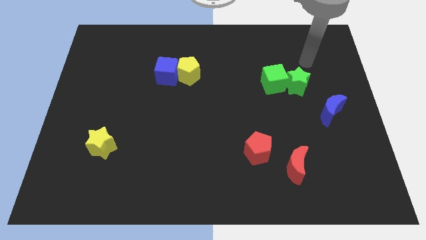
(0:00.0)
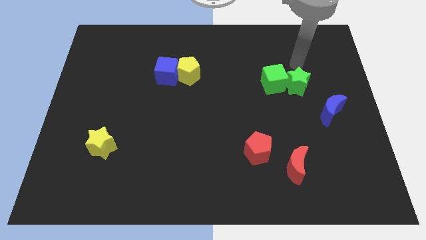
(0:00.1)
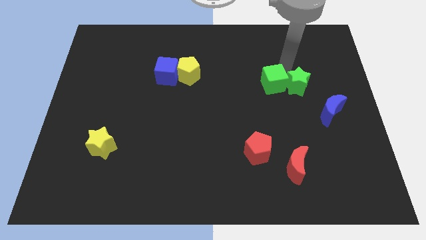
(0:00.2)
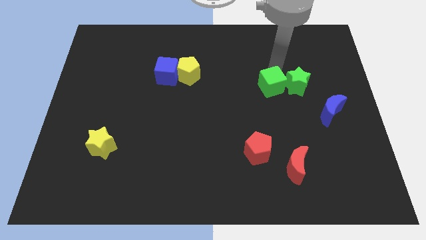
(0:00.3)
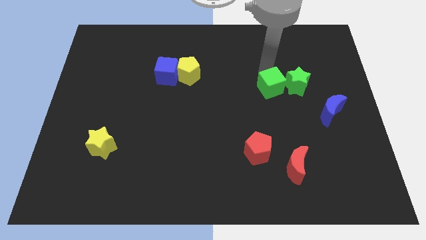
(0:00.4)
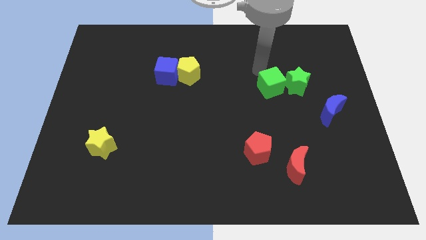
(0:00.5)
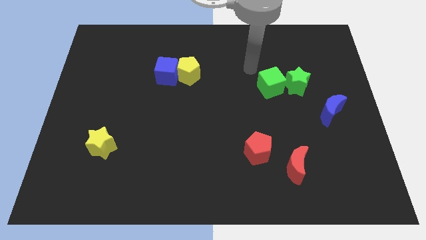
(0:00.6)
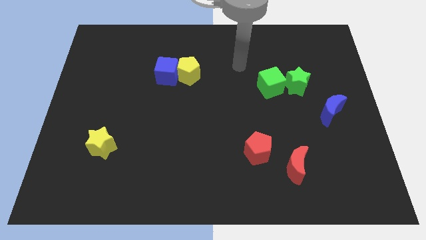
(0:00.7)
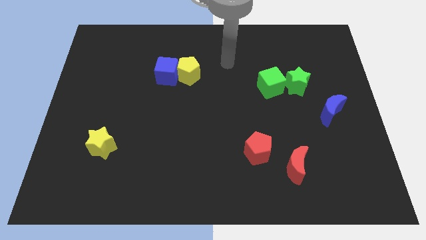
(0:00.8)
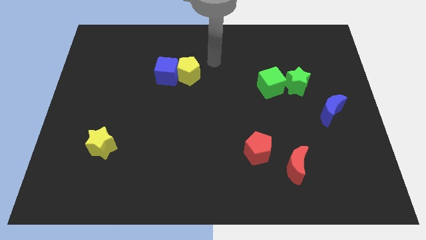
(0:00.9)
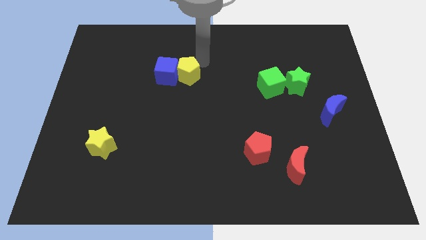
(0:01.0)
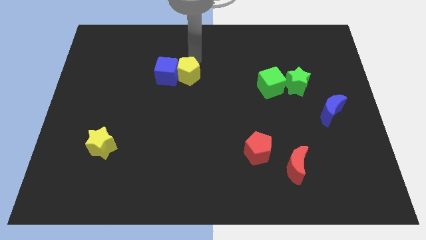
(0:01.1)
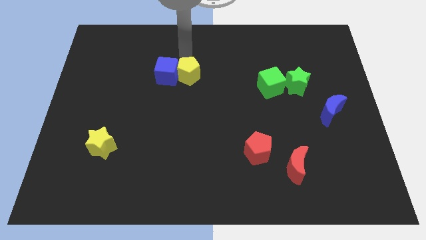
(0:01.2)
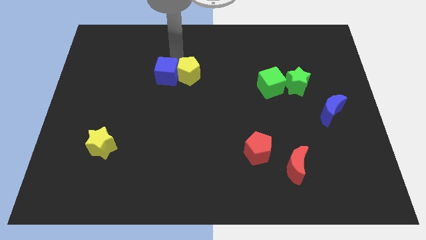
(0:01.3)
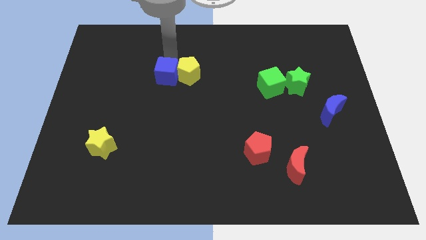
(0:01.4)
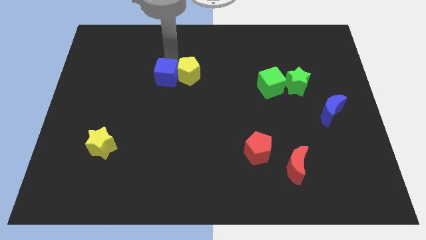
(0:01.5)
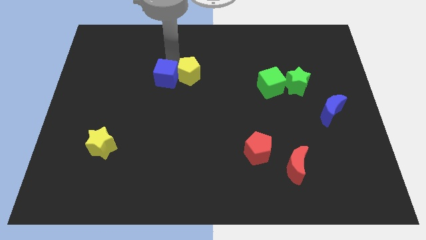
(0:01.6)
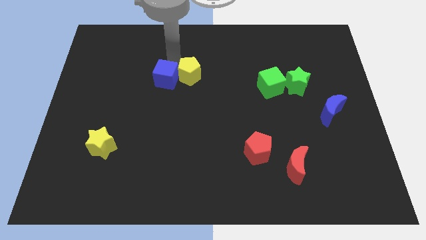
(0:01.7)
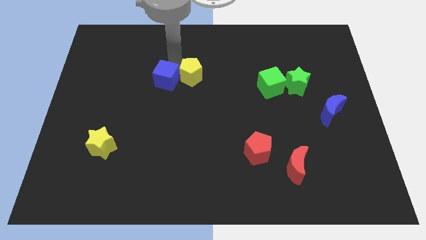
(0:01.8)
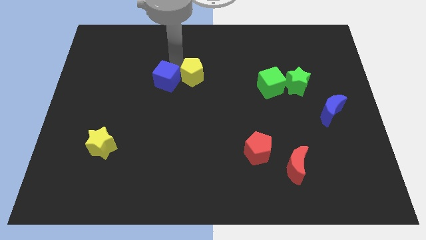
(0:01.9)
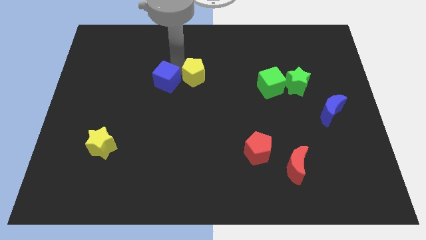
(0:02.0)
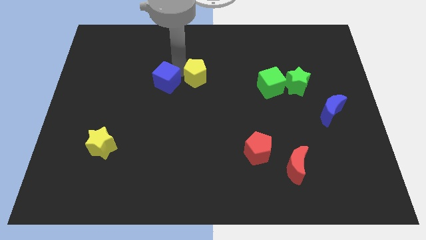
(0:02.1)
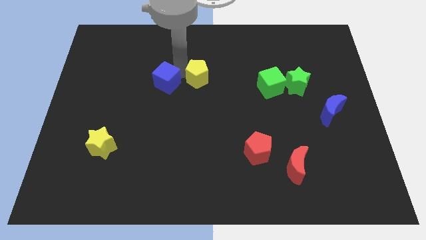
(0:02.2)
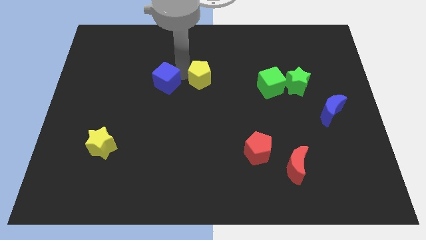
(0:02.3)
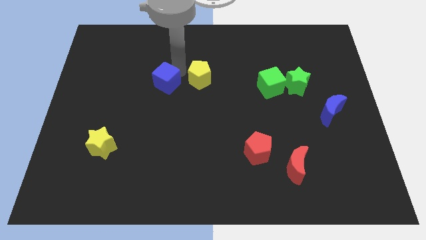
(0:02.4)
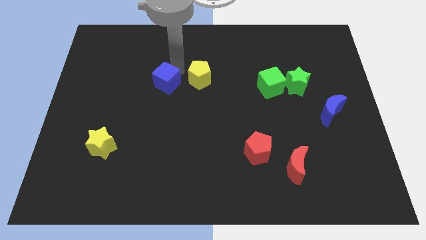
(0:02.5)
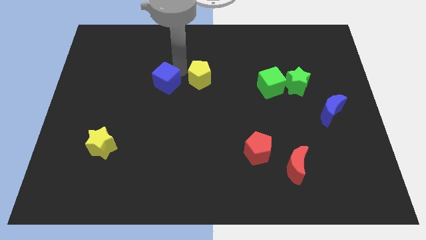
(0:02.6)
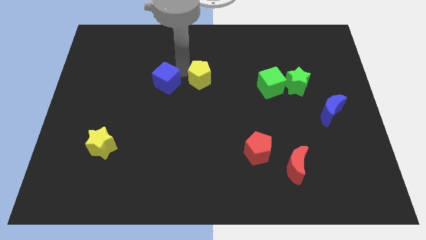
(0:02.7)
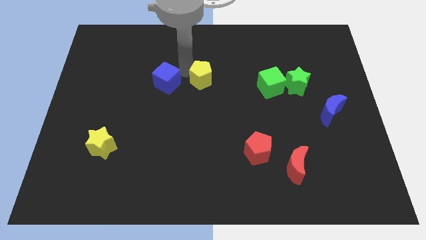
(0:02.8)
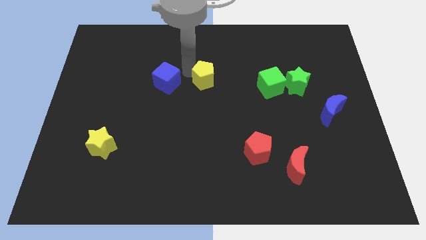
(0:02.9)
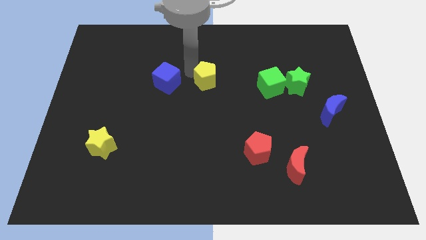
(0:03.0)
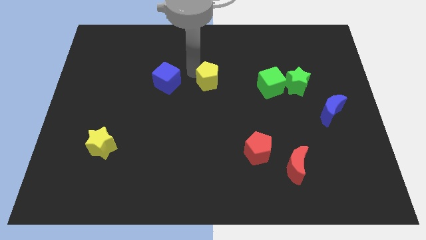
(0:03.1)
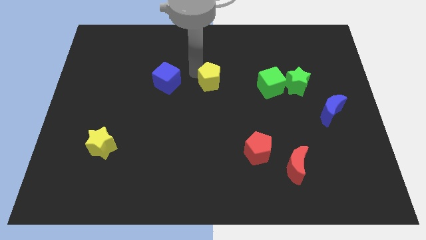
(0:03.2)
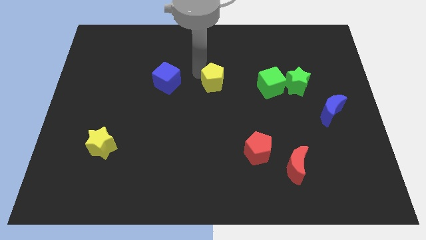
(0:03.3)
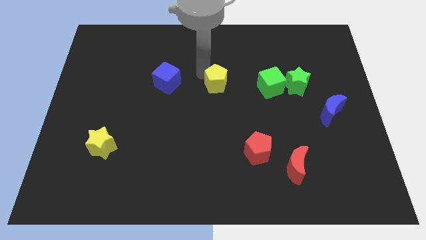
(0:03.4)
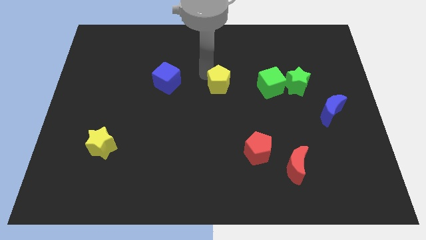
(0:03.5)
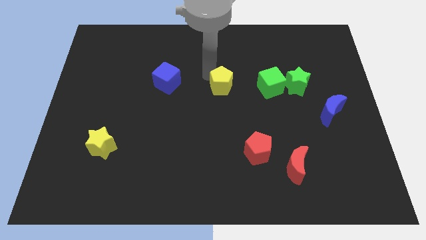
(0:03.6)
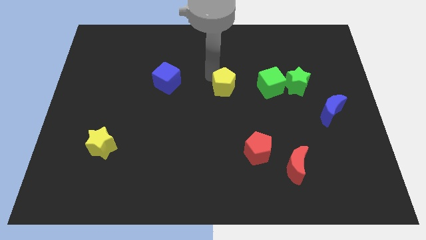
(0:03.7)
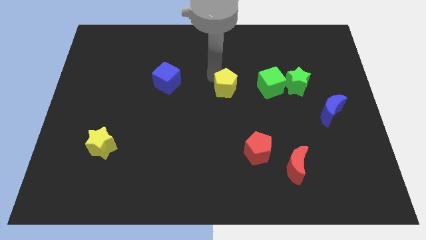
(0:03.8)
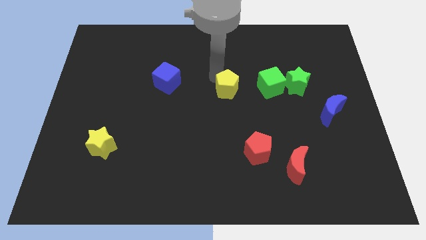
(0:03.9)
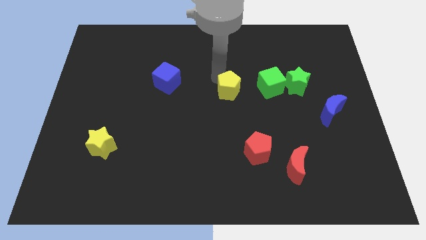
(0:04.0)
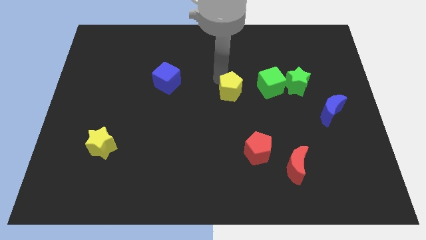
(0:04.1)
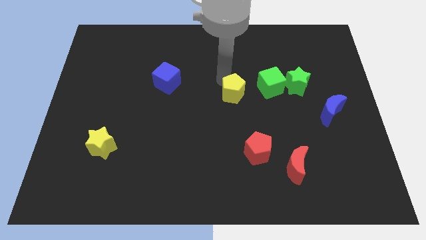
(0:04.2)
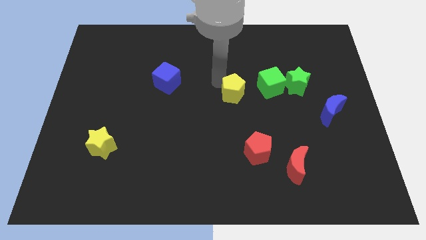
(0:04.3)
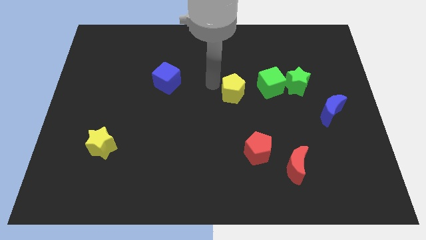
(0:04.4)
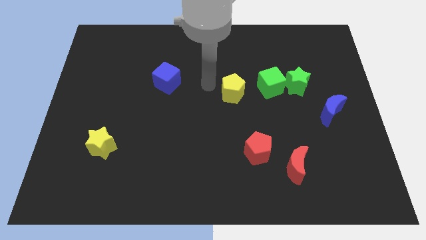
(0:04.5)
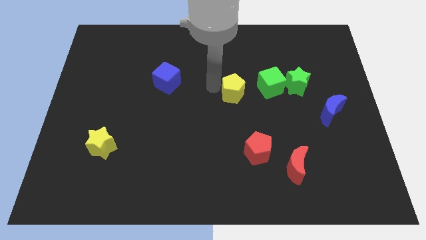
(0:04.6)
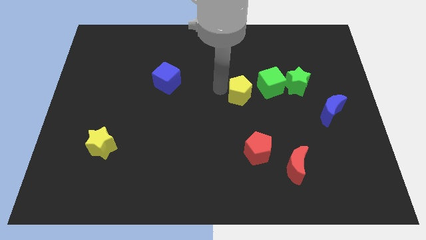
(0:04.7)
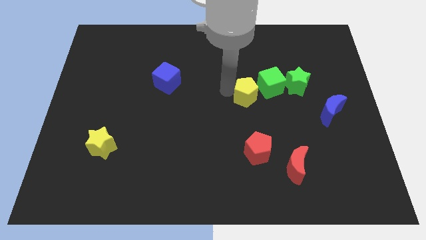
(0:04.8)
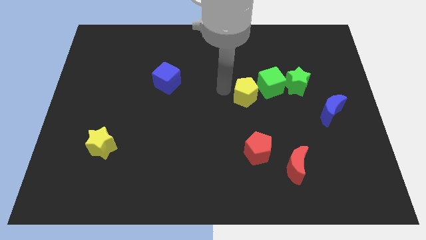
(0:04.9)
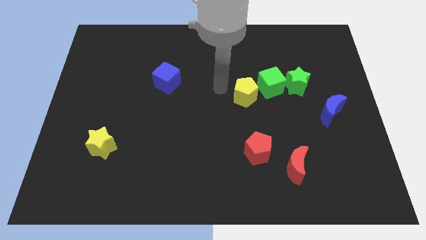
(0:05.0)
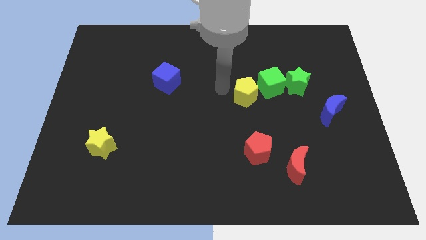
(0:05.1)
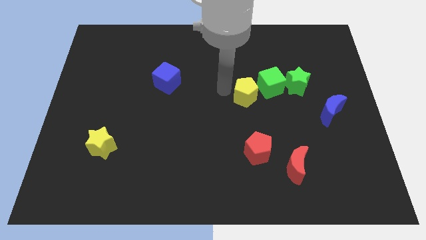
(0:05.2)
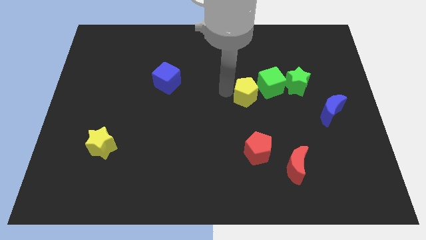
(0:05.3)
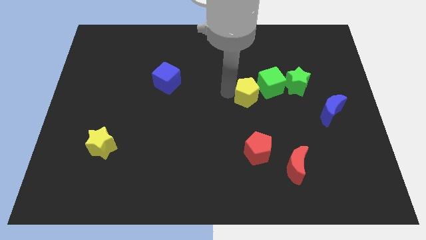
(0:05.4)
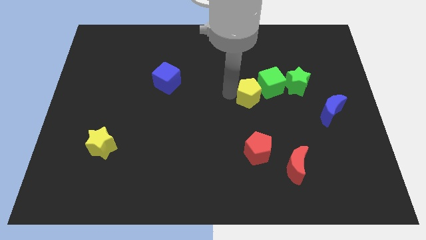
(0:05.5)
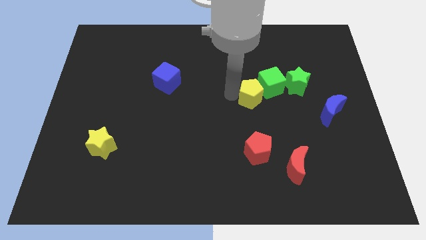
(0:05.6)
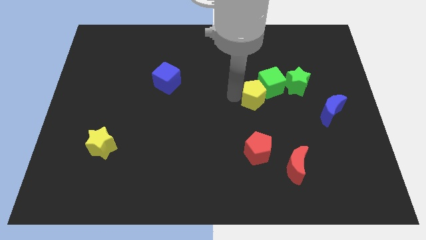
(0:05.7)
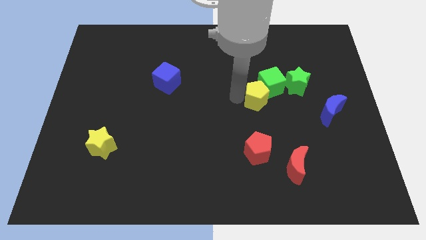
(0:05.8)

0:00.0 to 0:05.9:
push the yellow pentagon to the bottom left side of the green star

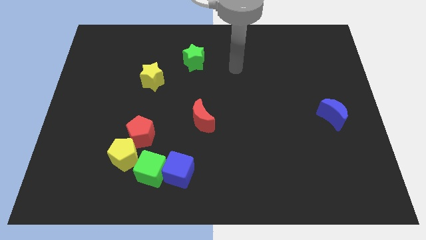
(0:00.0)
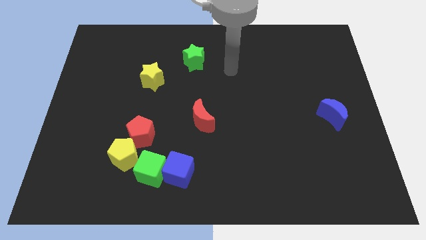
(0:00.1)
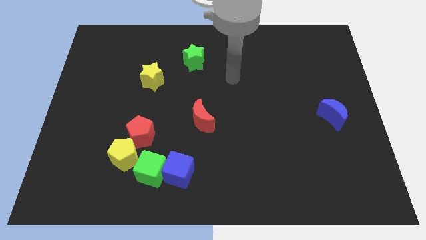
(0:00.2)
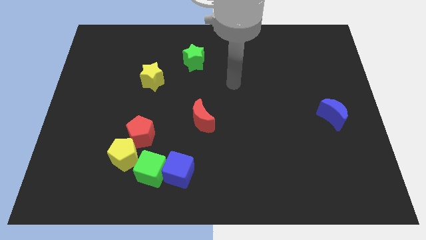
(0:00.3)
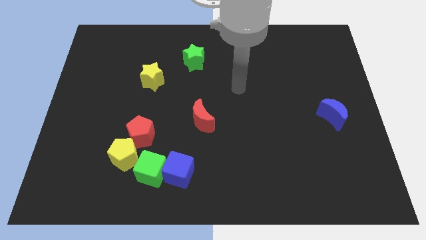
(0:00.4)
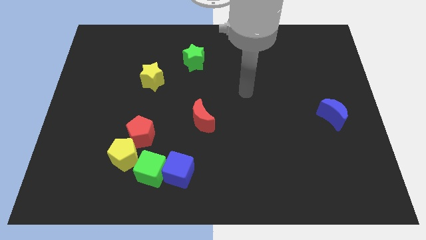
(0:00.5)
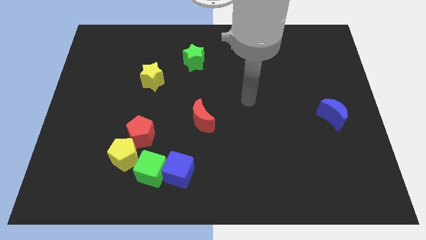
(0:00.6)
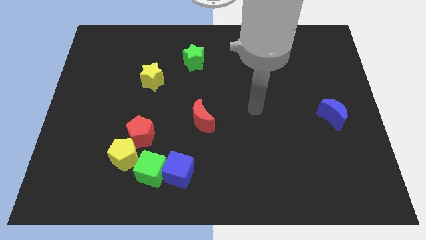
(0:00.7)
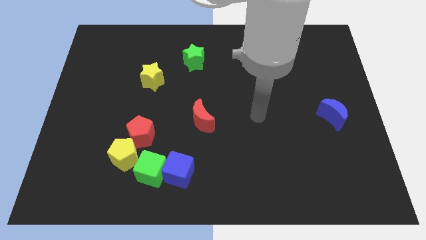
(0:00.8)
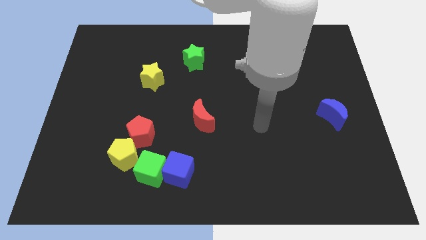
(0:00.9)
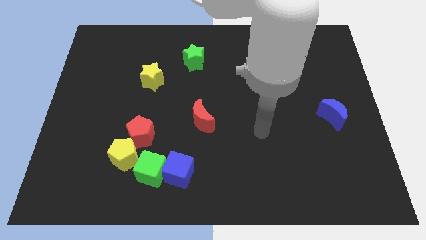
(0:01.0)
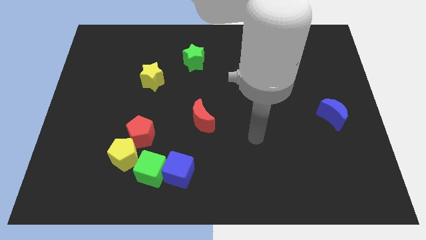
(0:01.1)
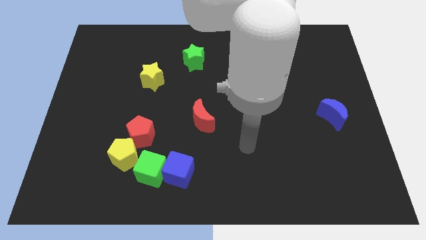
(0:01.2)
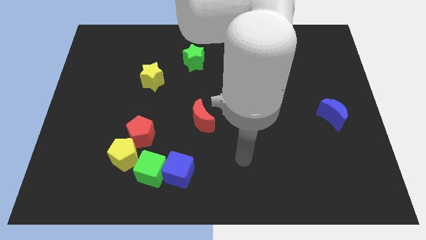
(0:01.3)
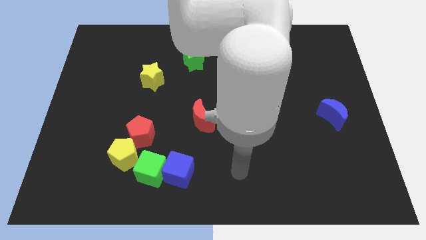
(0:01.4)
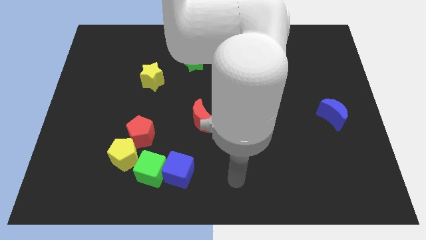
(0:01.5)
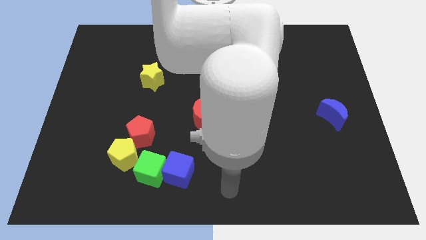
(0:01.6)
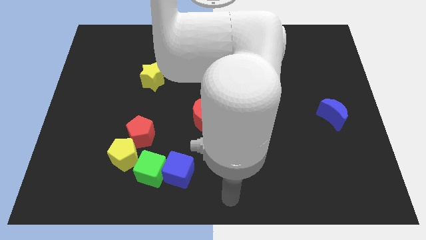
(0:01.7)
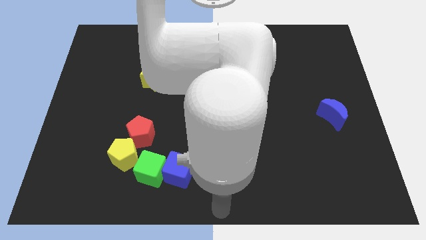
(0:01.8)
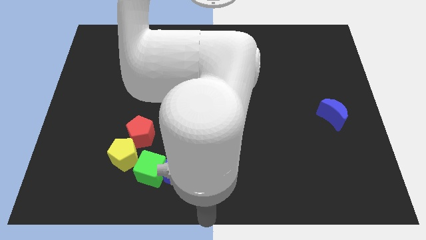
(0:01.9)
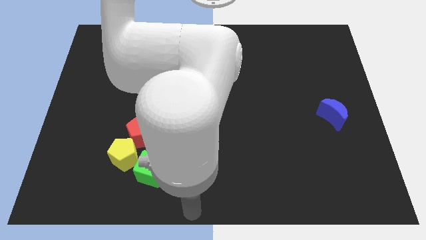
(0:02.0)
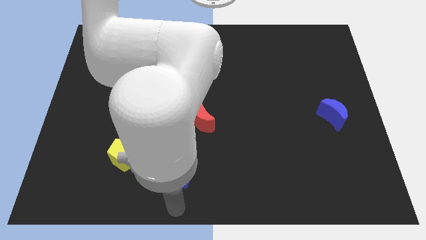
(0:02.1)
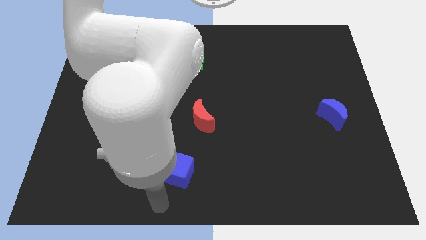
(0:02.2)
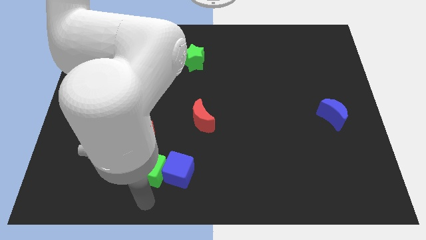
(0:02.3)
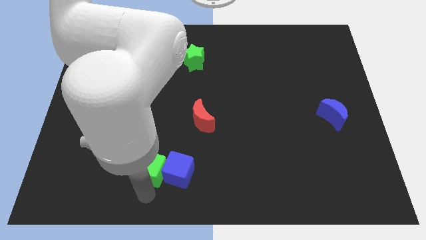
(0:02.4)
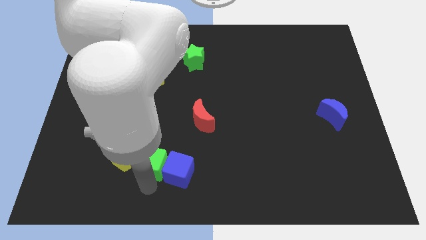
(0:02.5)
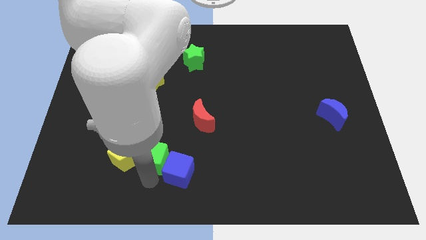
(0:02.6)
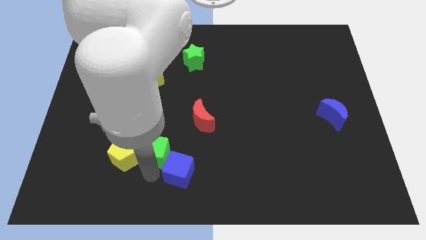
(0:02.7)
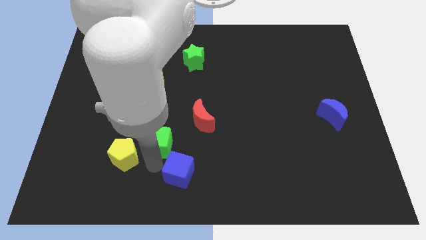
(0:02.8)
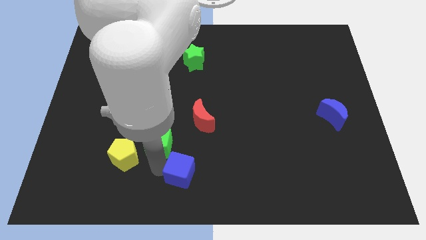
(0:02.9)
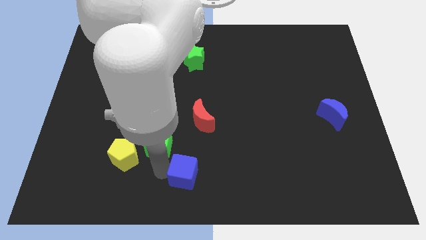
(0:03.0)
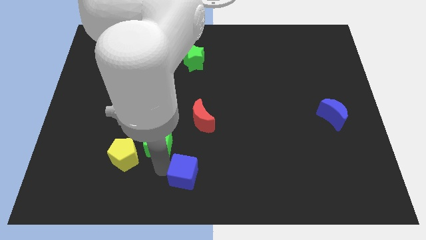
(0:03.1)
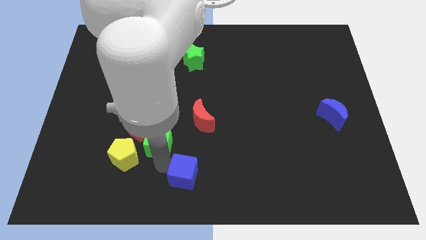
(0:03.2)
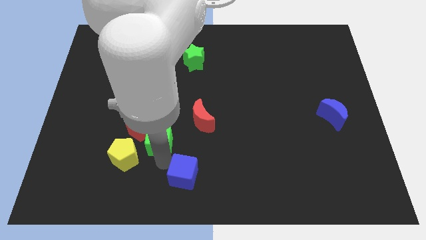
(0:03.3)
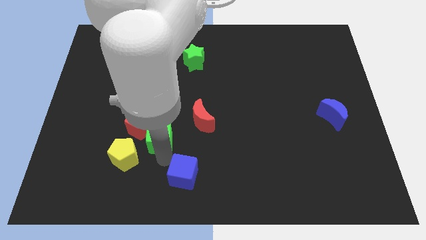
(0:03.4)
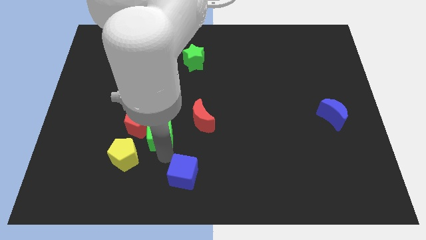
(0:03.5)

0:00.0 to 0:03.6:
push the green cube left of the red moon
